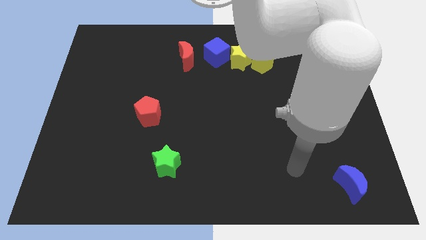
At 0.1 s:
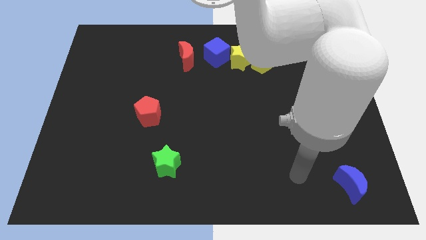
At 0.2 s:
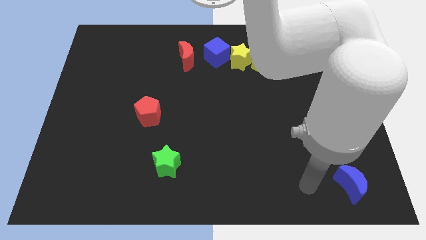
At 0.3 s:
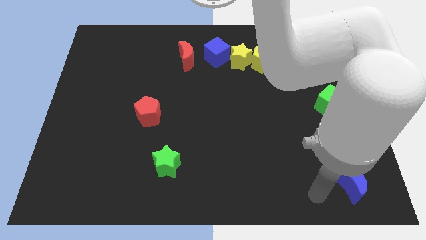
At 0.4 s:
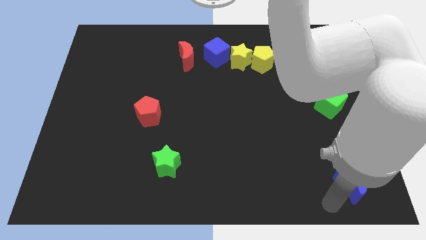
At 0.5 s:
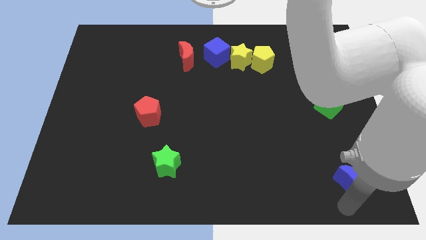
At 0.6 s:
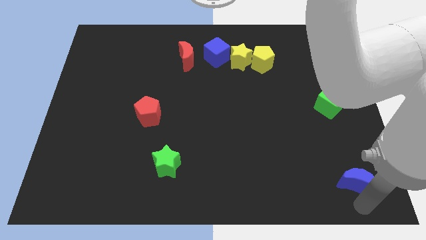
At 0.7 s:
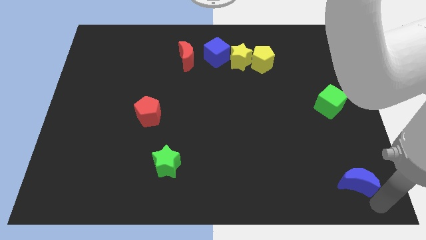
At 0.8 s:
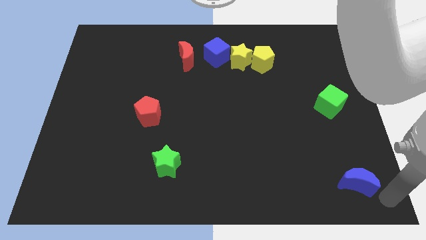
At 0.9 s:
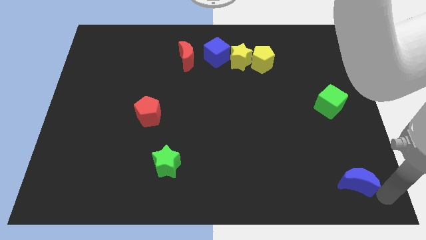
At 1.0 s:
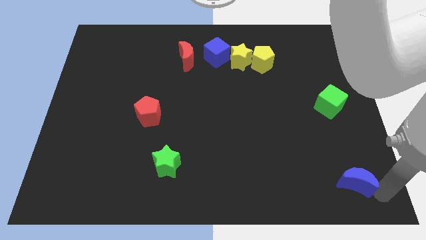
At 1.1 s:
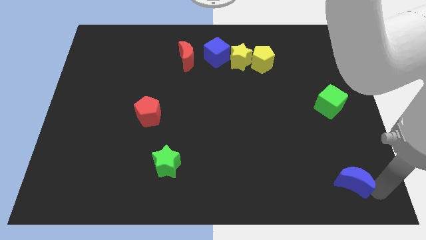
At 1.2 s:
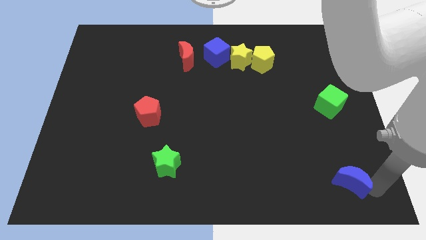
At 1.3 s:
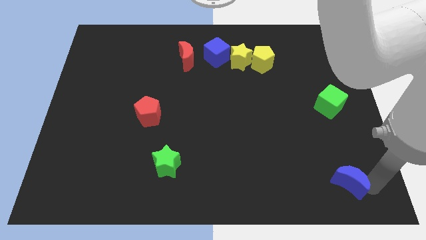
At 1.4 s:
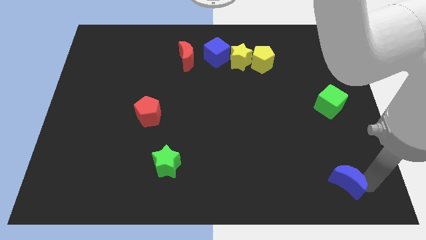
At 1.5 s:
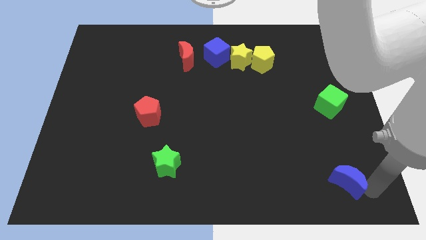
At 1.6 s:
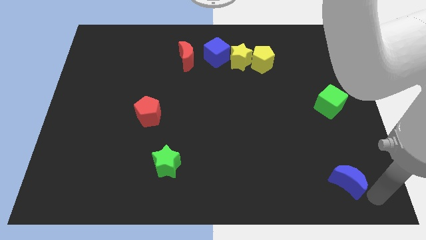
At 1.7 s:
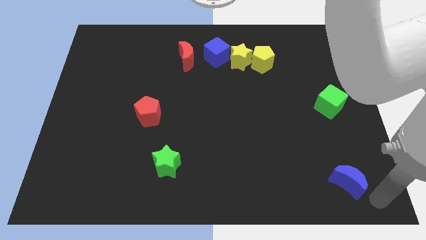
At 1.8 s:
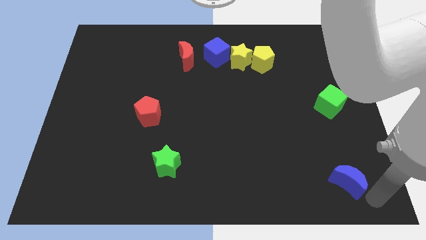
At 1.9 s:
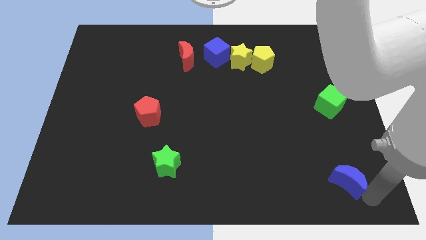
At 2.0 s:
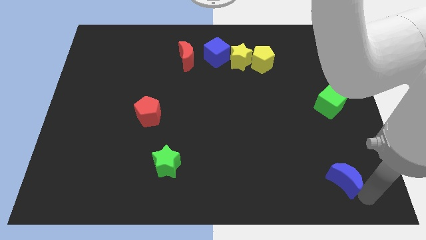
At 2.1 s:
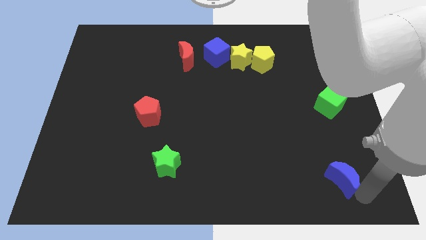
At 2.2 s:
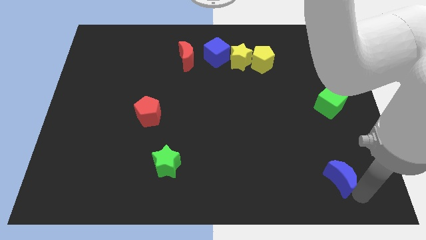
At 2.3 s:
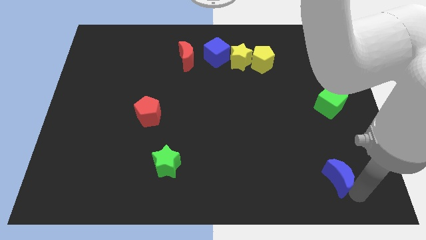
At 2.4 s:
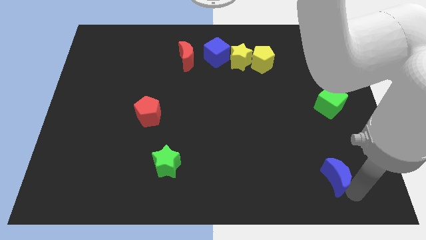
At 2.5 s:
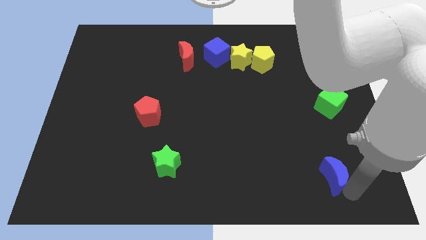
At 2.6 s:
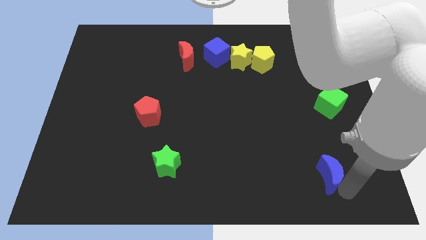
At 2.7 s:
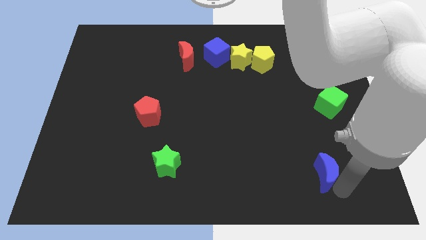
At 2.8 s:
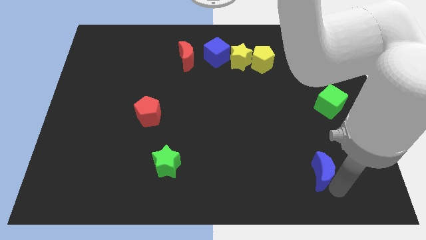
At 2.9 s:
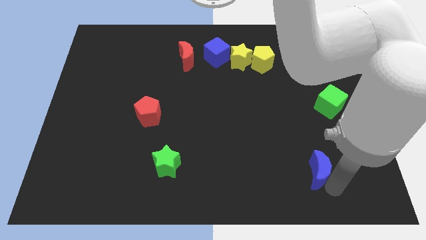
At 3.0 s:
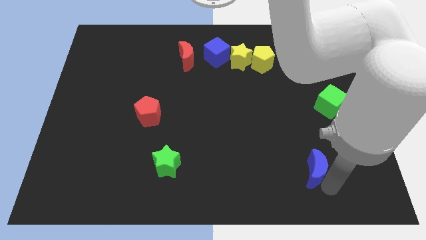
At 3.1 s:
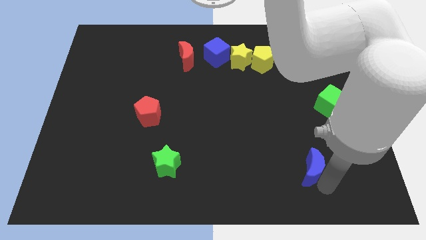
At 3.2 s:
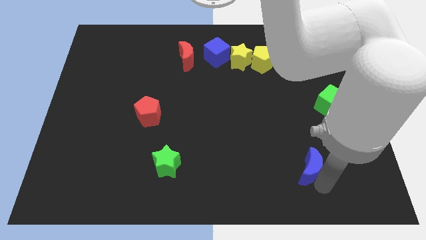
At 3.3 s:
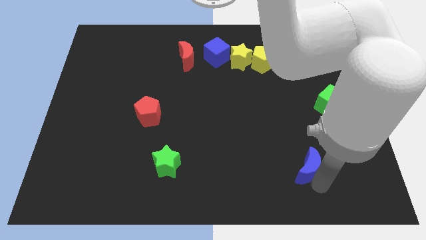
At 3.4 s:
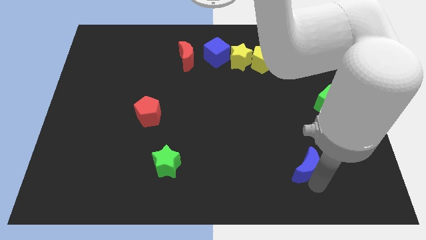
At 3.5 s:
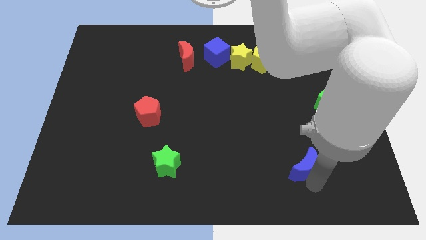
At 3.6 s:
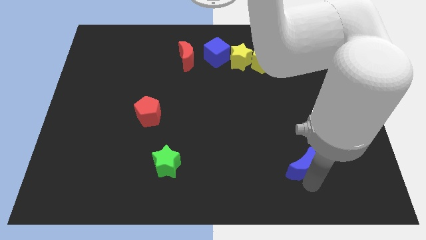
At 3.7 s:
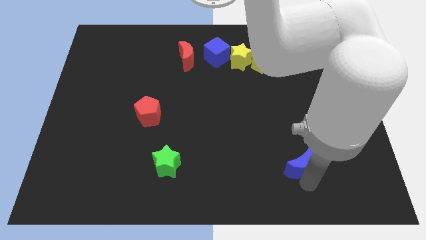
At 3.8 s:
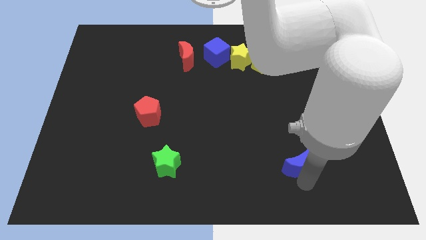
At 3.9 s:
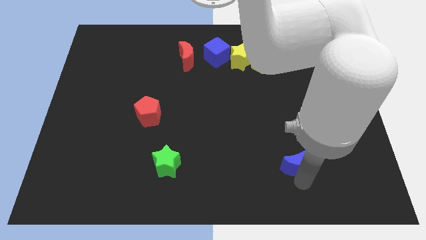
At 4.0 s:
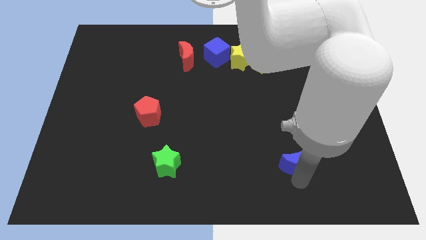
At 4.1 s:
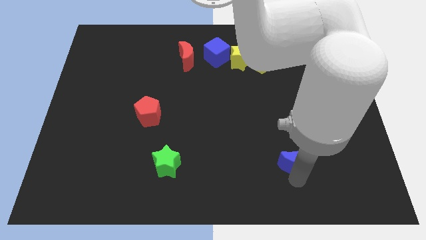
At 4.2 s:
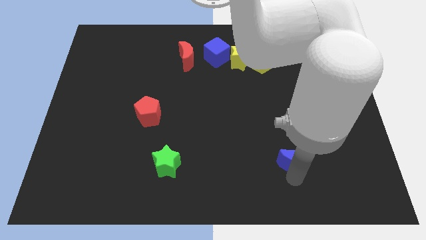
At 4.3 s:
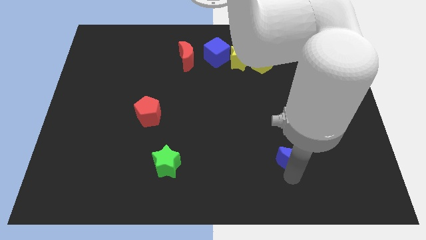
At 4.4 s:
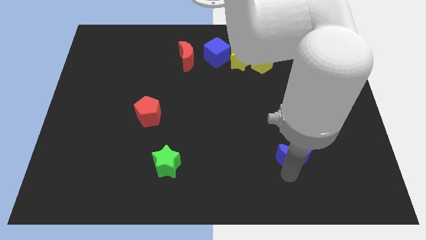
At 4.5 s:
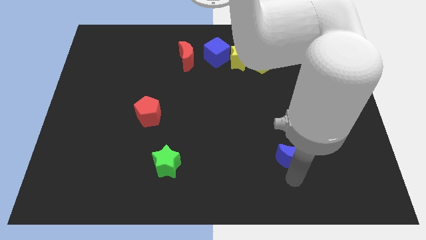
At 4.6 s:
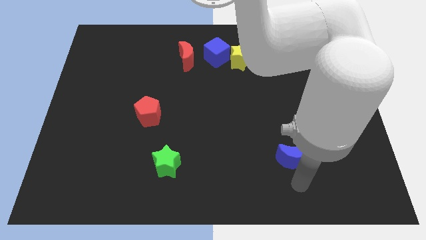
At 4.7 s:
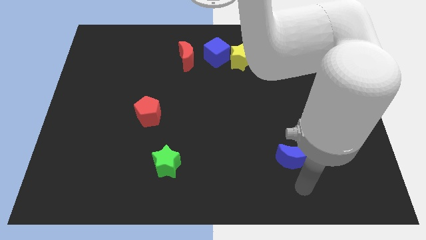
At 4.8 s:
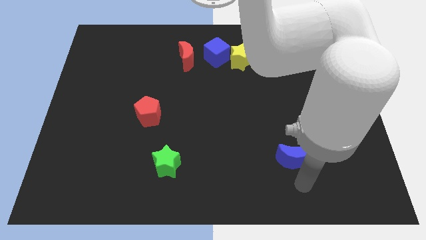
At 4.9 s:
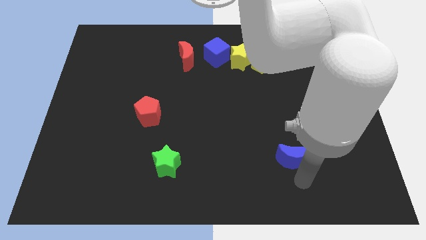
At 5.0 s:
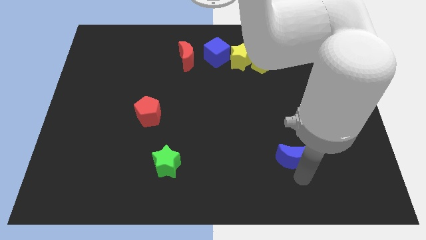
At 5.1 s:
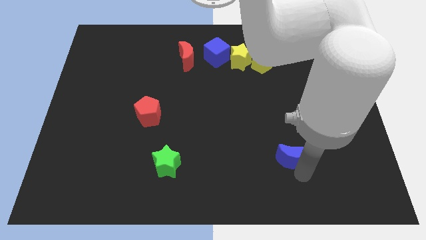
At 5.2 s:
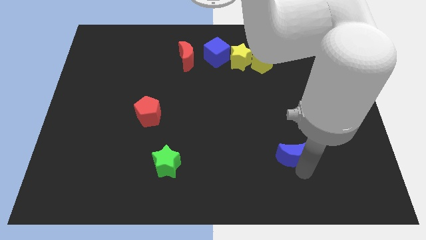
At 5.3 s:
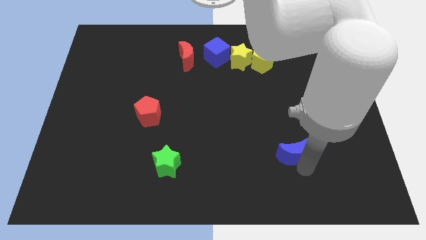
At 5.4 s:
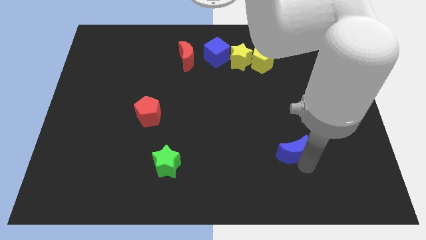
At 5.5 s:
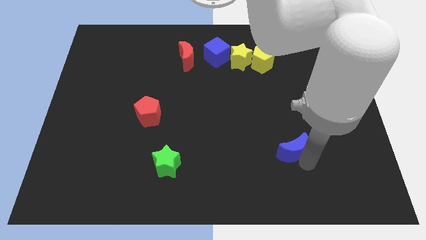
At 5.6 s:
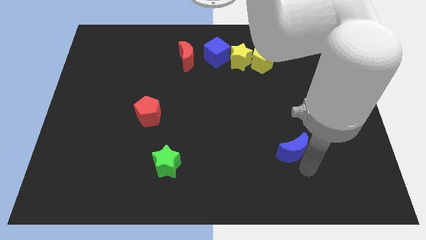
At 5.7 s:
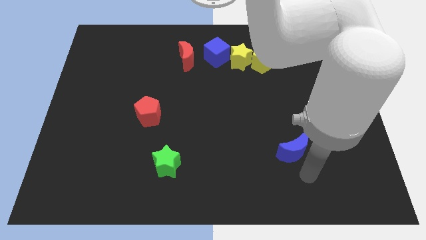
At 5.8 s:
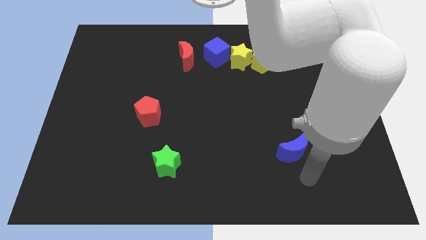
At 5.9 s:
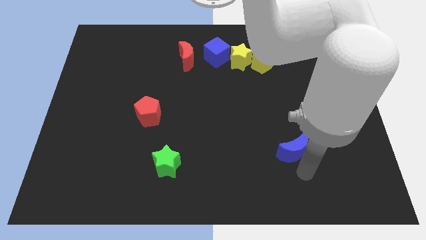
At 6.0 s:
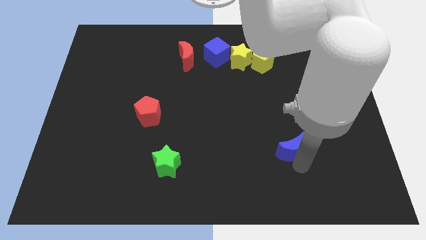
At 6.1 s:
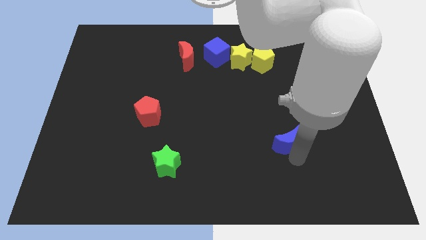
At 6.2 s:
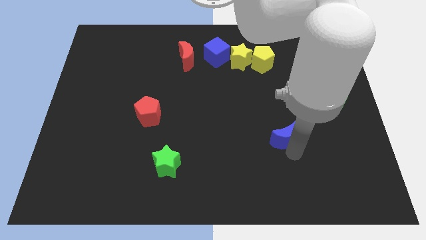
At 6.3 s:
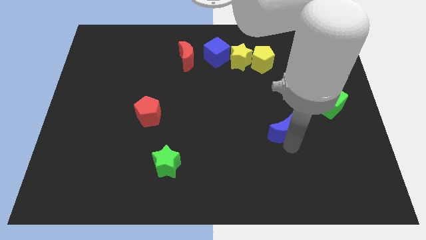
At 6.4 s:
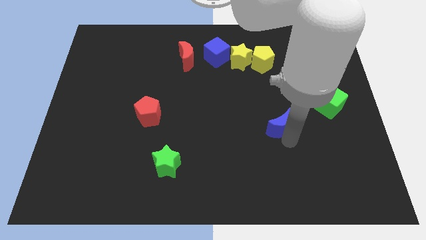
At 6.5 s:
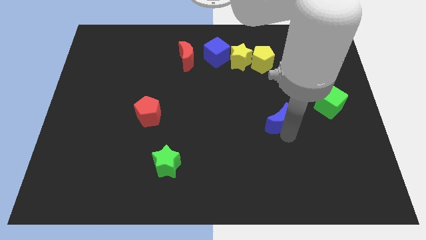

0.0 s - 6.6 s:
move the blue moon up and to the left diagonally

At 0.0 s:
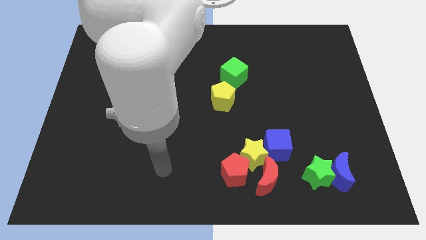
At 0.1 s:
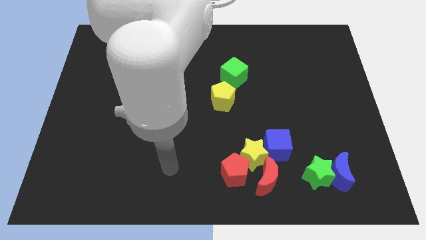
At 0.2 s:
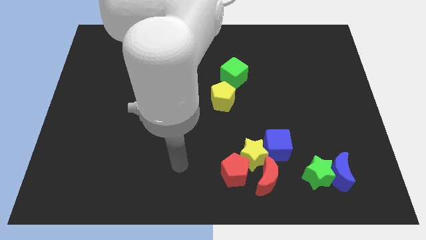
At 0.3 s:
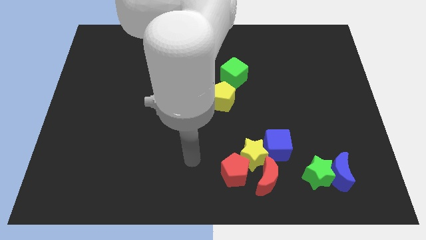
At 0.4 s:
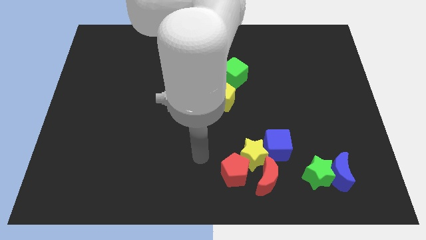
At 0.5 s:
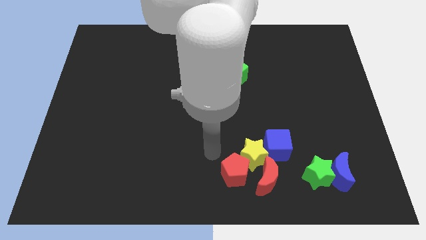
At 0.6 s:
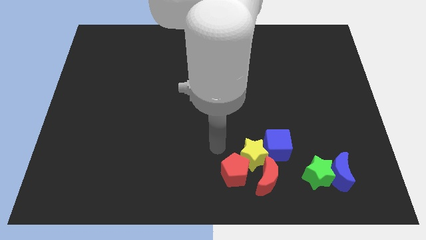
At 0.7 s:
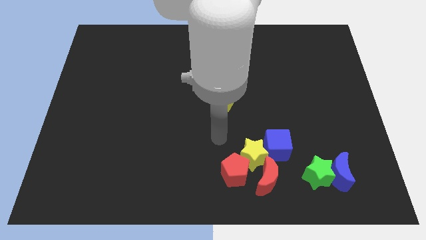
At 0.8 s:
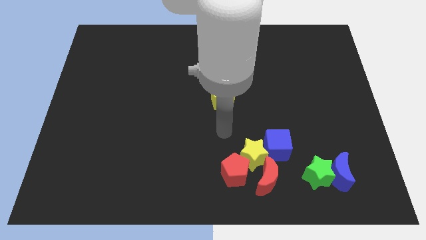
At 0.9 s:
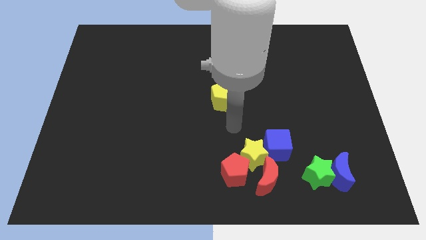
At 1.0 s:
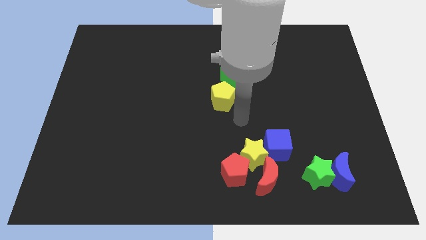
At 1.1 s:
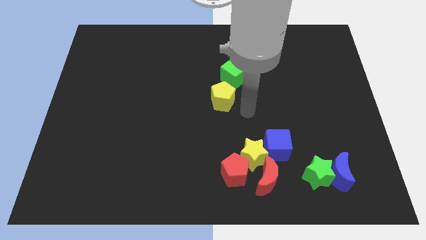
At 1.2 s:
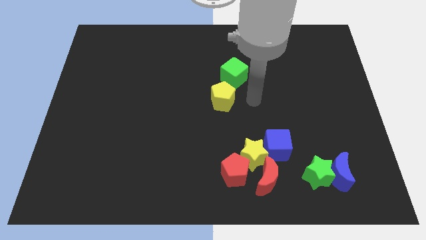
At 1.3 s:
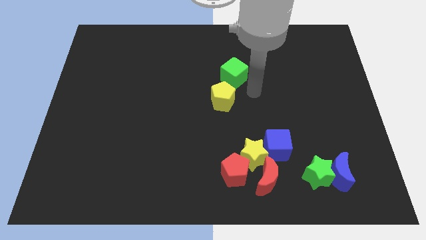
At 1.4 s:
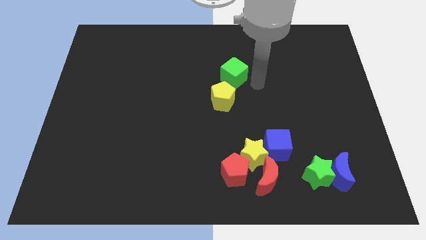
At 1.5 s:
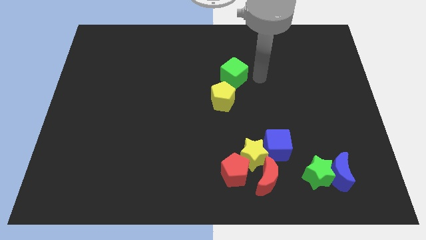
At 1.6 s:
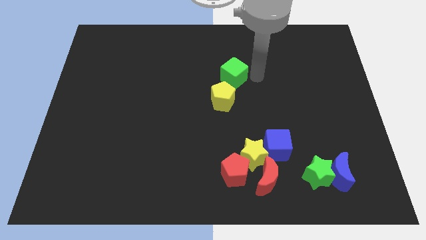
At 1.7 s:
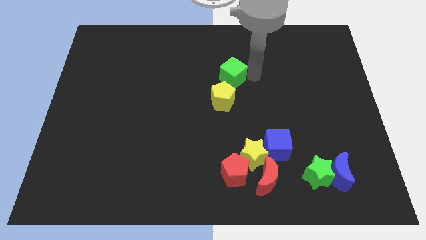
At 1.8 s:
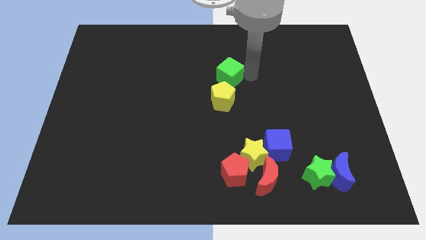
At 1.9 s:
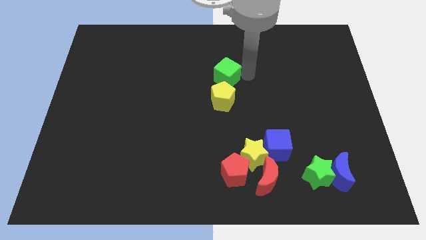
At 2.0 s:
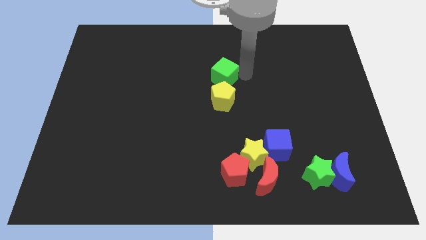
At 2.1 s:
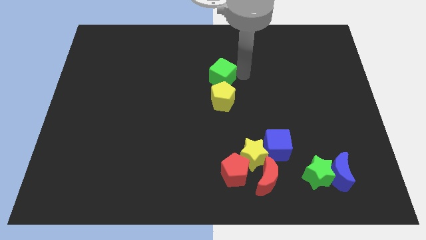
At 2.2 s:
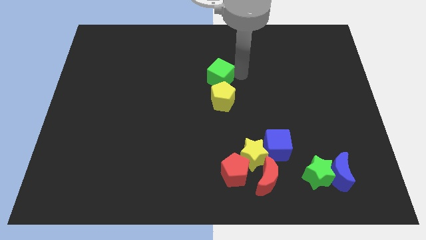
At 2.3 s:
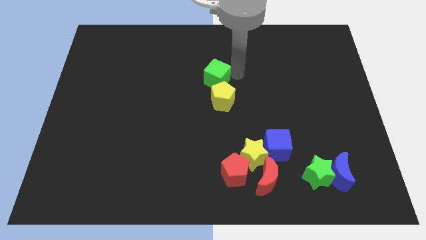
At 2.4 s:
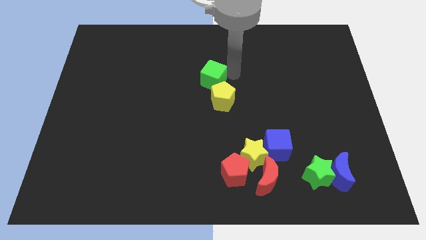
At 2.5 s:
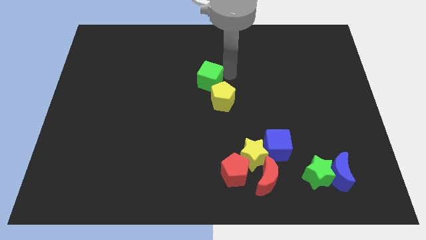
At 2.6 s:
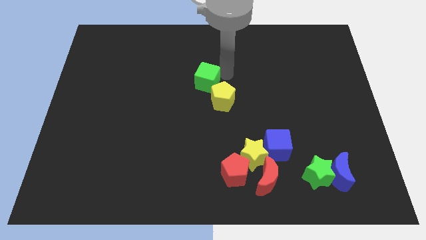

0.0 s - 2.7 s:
slightly push the green cube to the left
